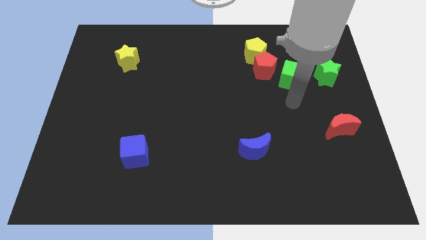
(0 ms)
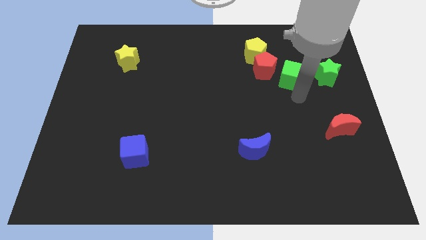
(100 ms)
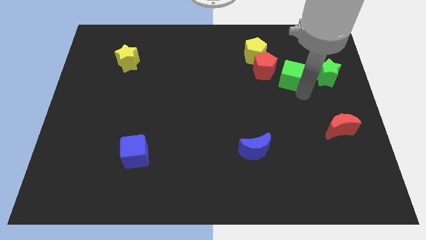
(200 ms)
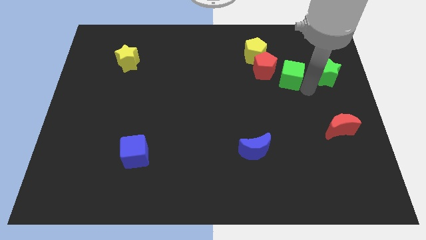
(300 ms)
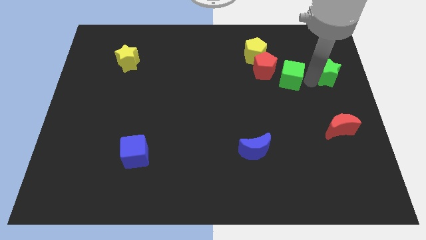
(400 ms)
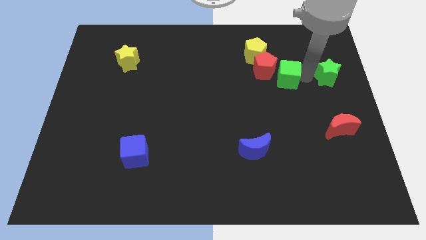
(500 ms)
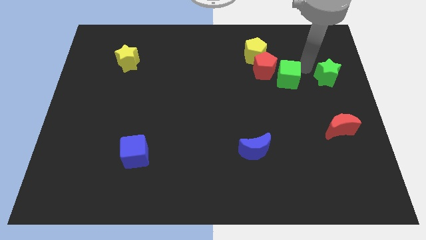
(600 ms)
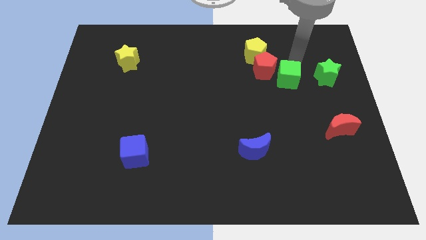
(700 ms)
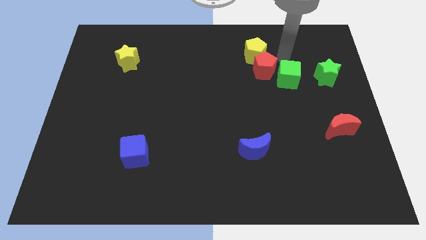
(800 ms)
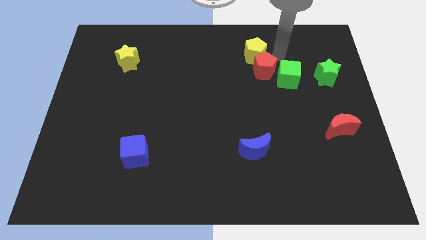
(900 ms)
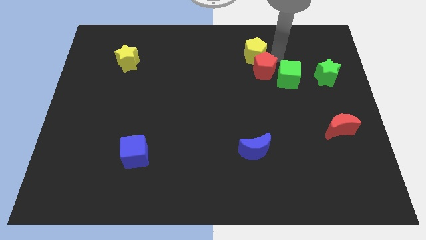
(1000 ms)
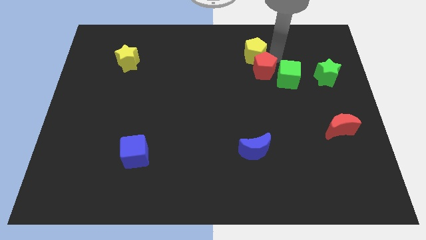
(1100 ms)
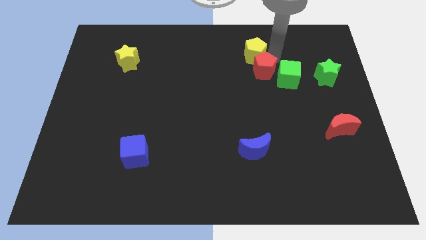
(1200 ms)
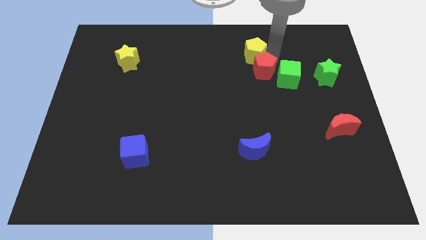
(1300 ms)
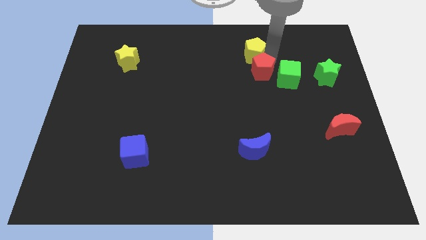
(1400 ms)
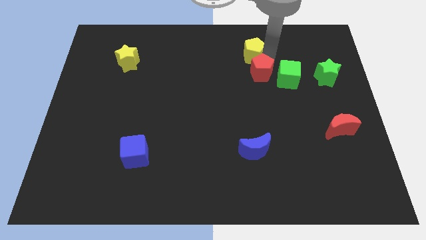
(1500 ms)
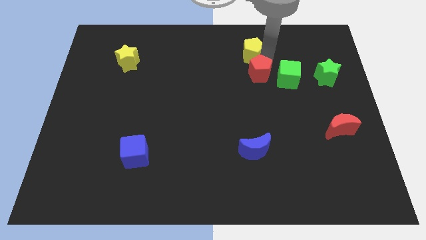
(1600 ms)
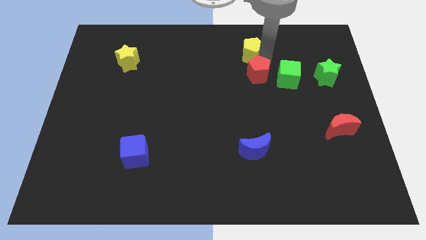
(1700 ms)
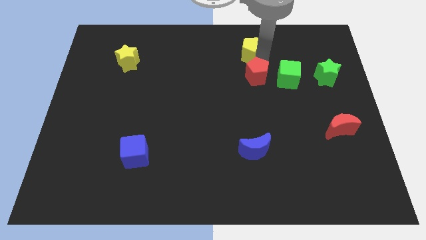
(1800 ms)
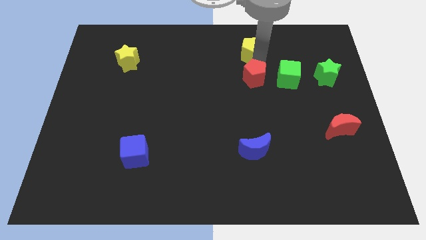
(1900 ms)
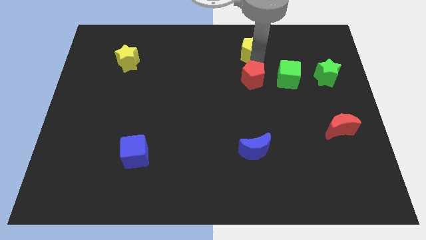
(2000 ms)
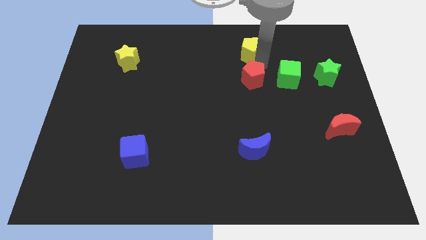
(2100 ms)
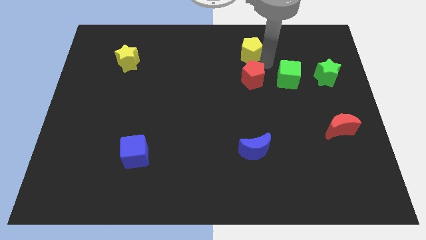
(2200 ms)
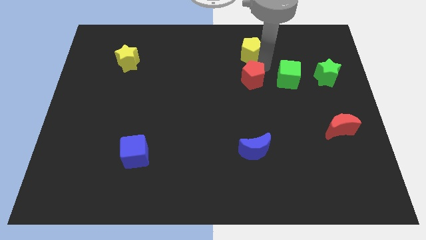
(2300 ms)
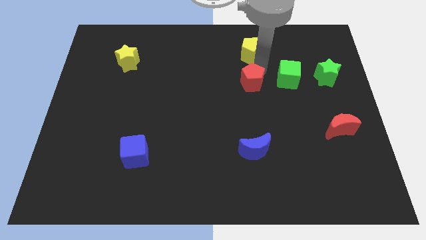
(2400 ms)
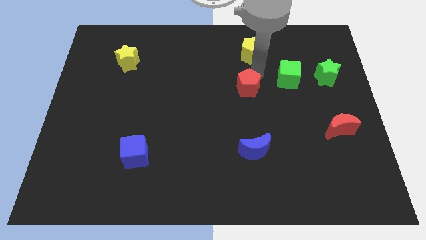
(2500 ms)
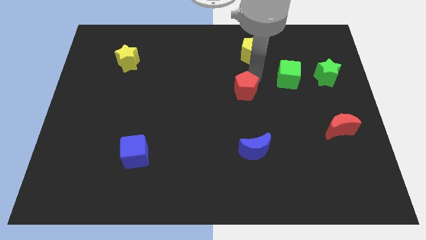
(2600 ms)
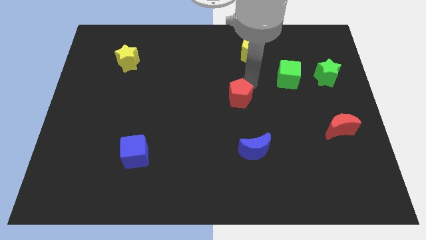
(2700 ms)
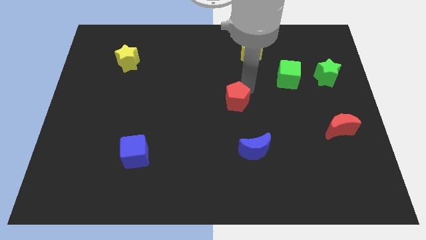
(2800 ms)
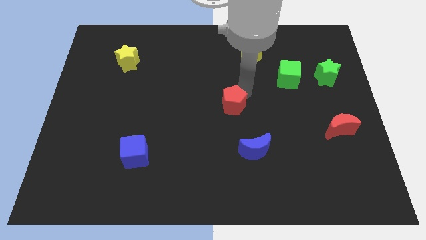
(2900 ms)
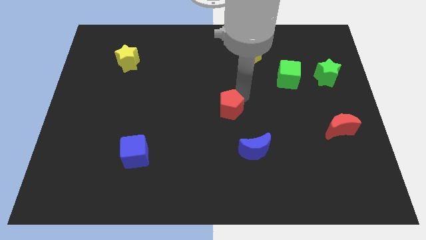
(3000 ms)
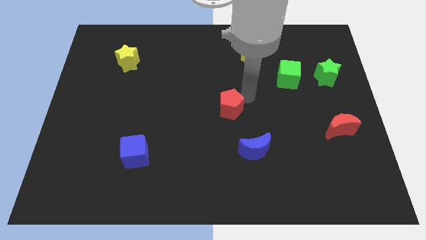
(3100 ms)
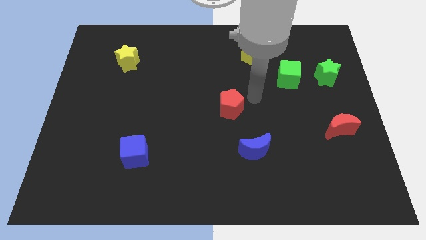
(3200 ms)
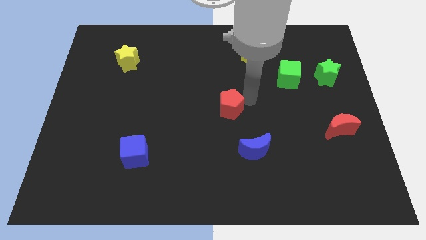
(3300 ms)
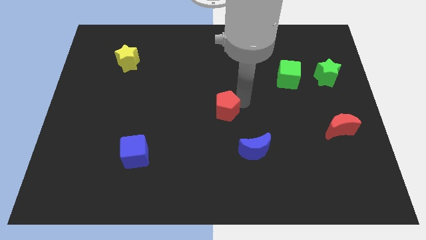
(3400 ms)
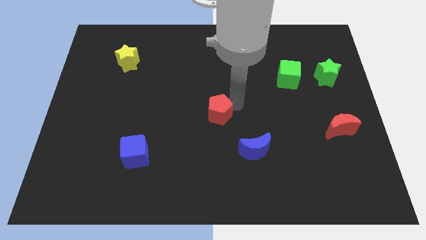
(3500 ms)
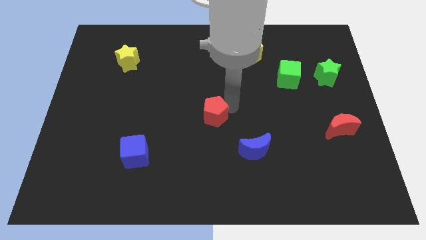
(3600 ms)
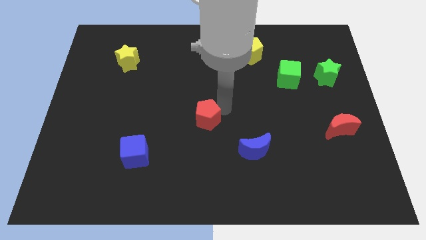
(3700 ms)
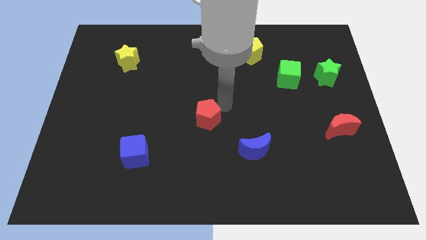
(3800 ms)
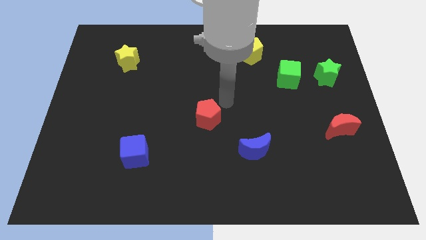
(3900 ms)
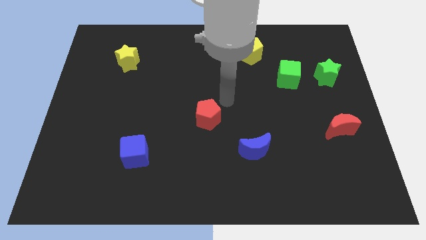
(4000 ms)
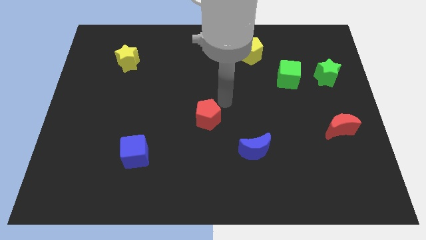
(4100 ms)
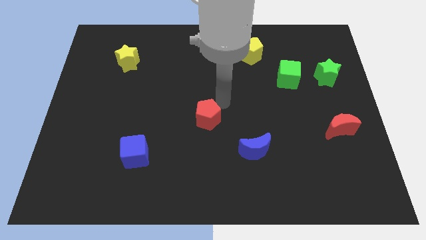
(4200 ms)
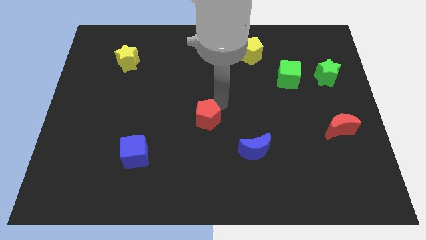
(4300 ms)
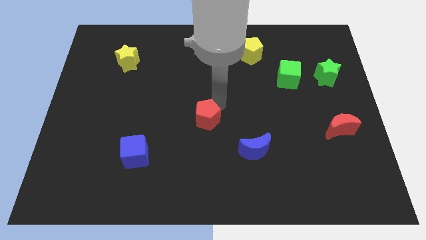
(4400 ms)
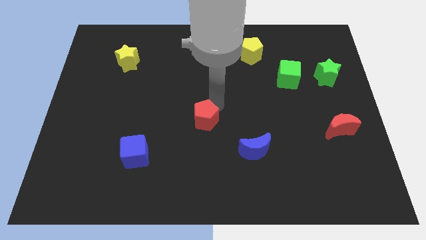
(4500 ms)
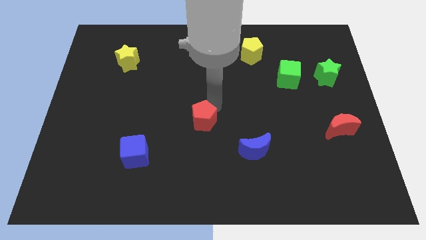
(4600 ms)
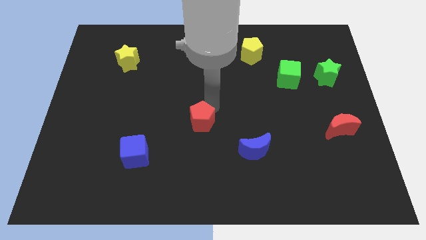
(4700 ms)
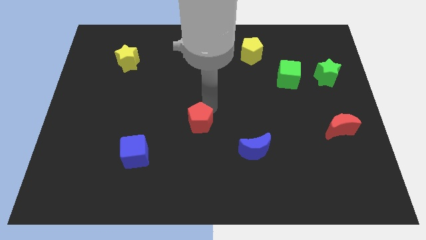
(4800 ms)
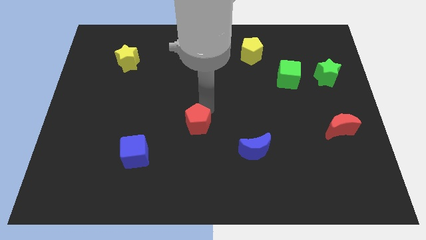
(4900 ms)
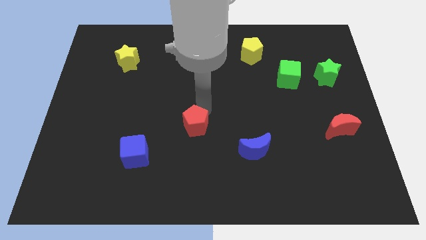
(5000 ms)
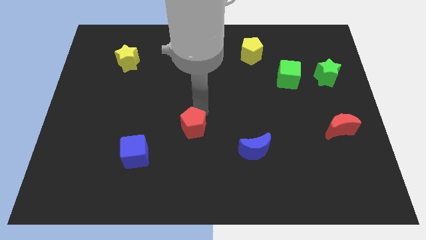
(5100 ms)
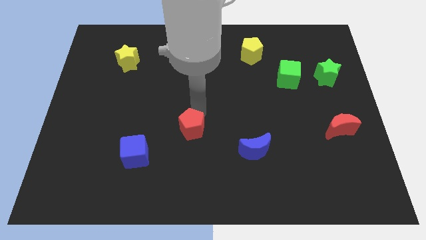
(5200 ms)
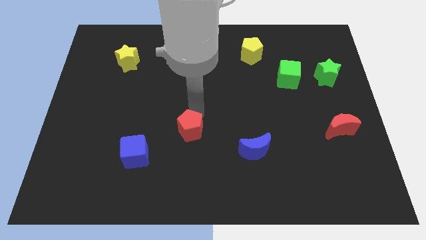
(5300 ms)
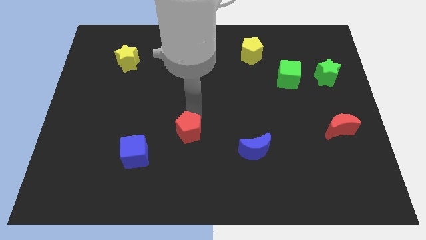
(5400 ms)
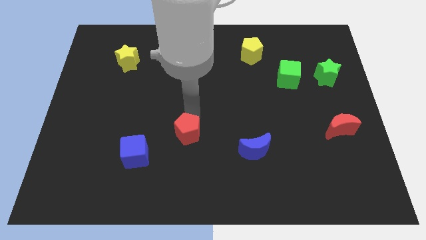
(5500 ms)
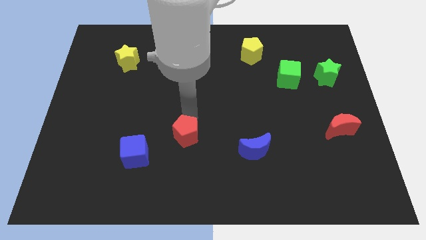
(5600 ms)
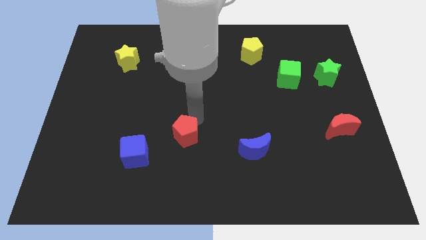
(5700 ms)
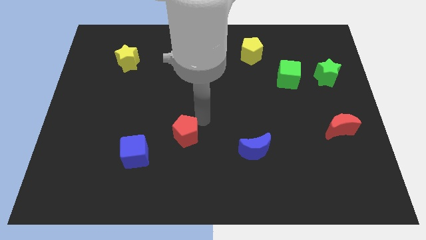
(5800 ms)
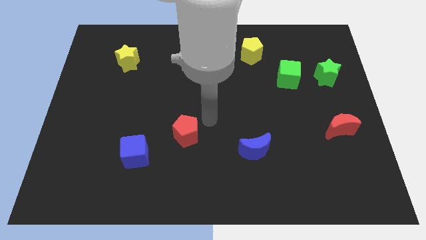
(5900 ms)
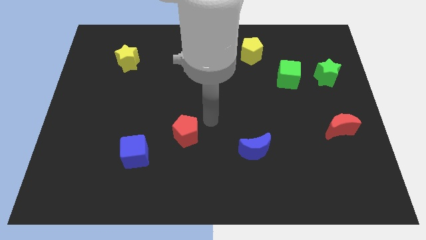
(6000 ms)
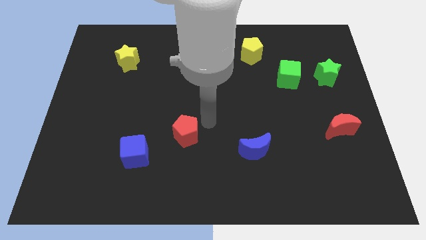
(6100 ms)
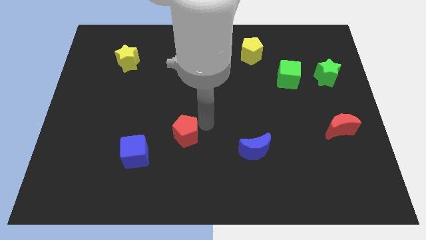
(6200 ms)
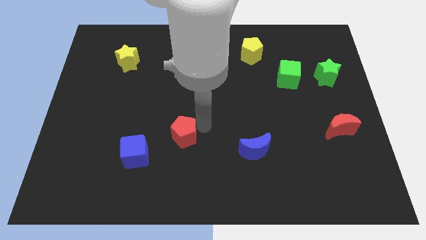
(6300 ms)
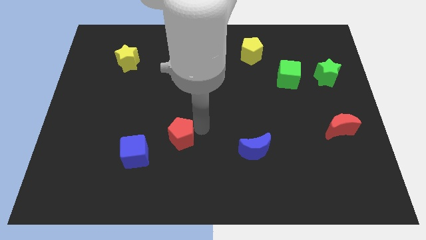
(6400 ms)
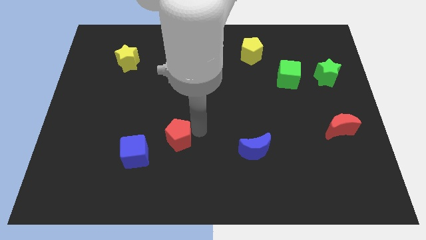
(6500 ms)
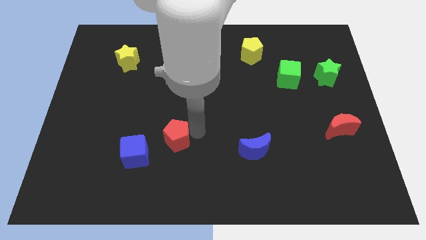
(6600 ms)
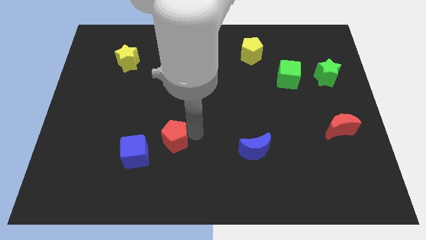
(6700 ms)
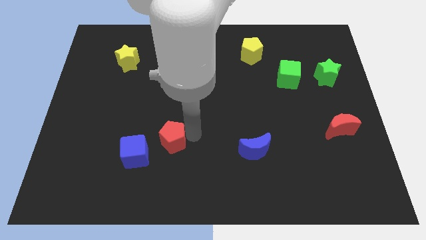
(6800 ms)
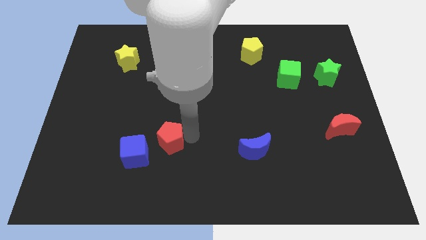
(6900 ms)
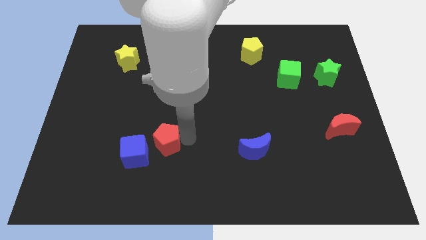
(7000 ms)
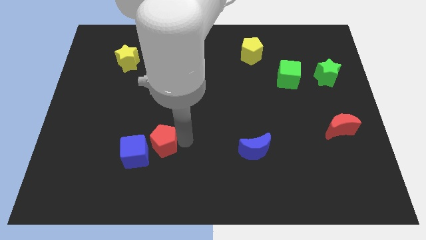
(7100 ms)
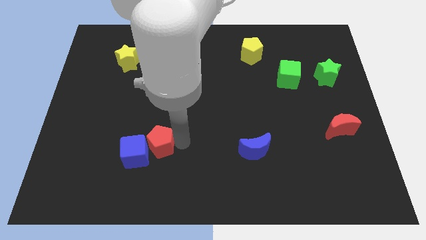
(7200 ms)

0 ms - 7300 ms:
move the red pentagon towards the blue cube
